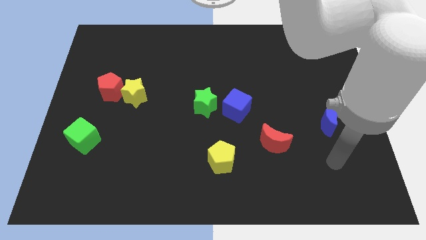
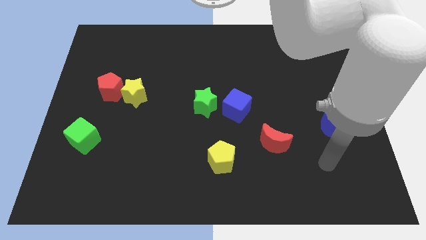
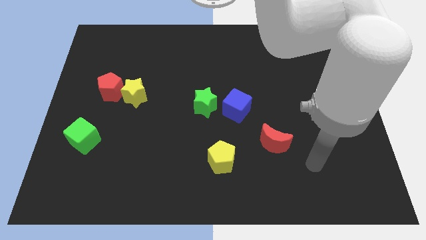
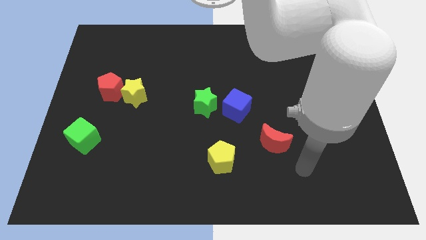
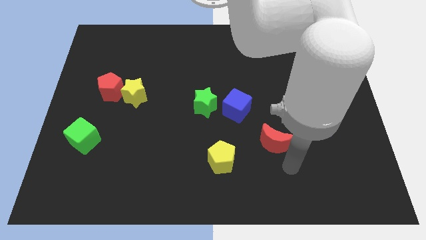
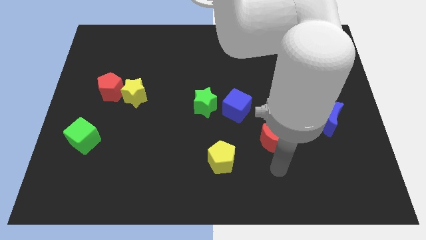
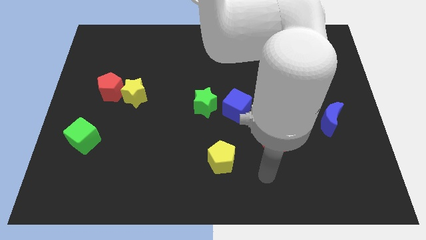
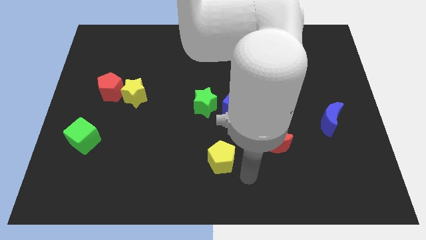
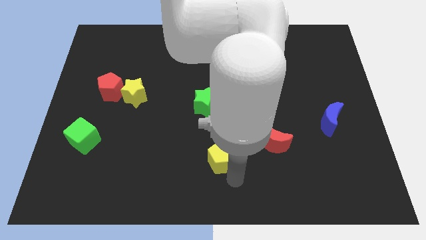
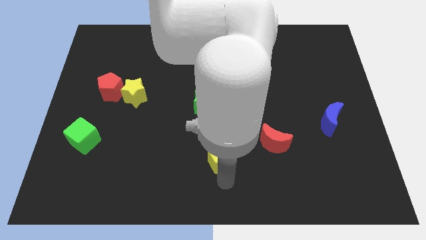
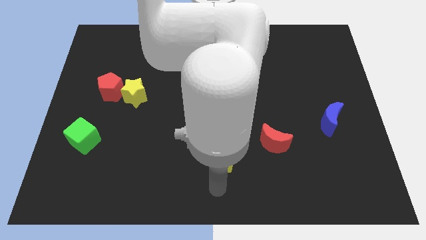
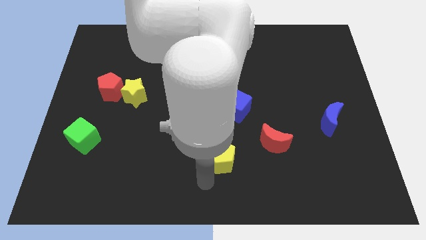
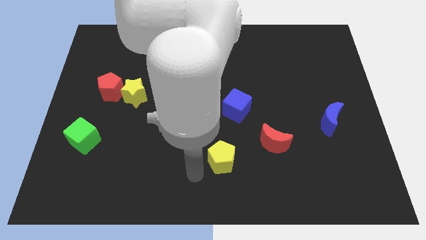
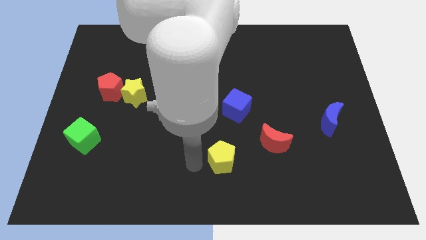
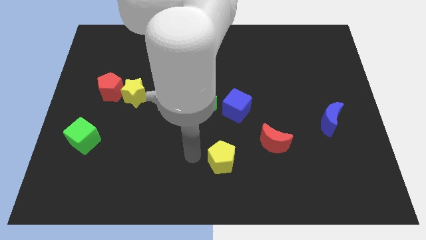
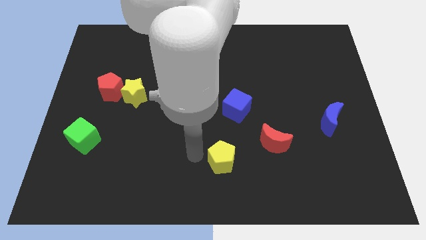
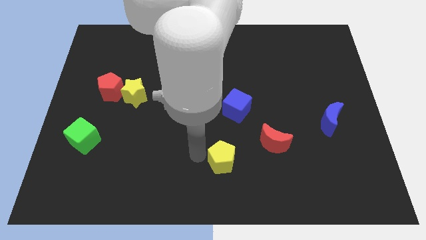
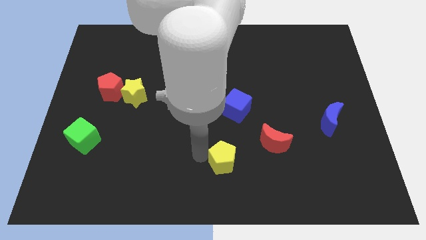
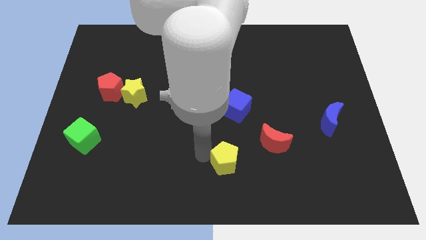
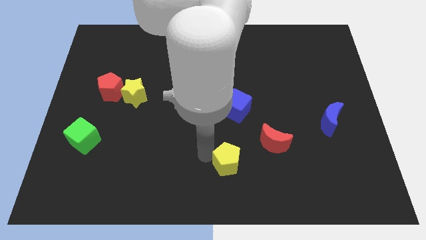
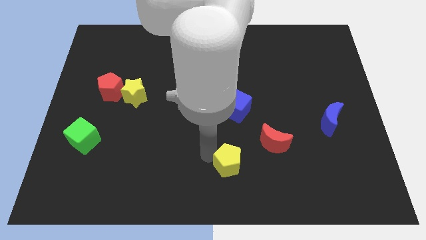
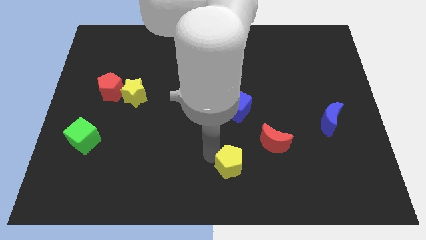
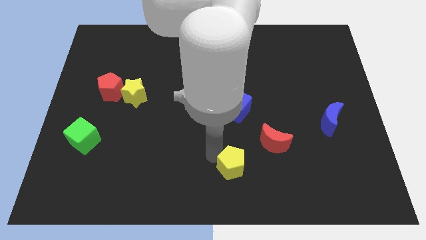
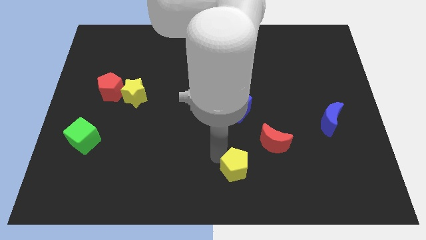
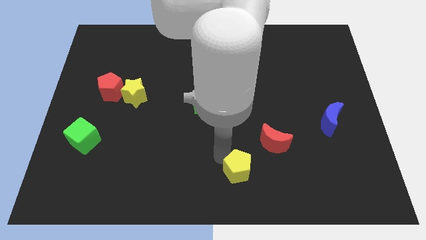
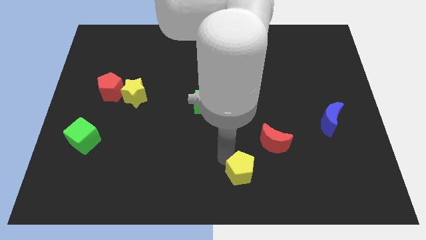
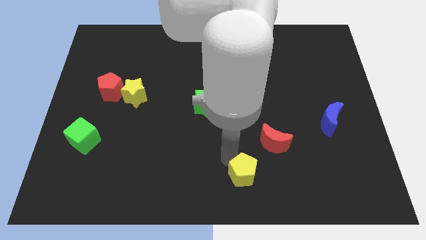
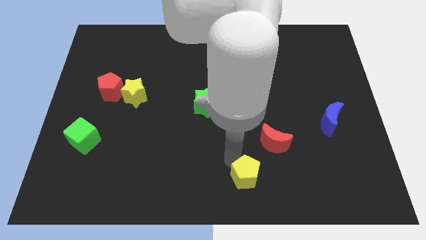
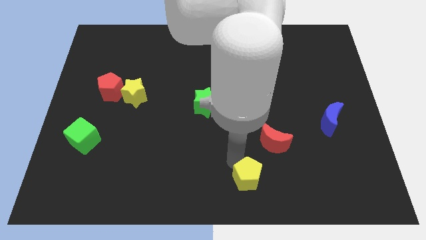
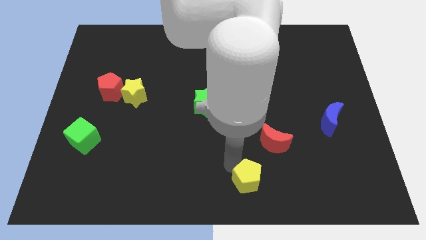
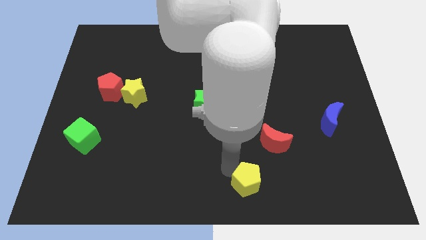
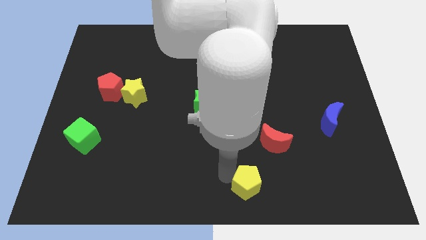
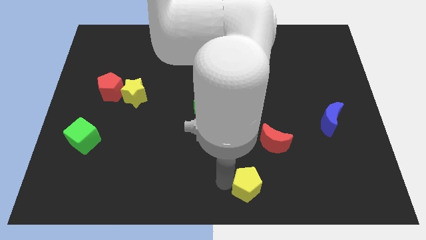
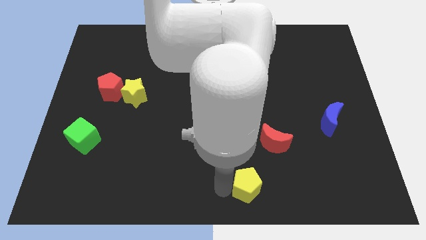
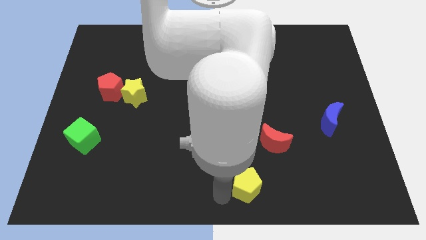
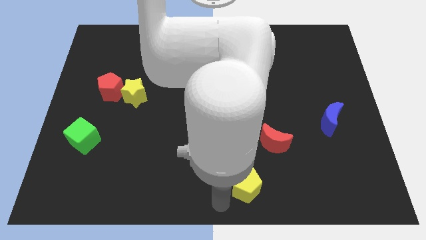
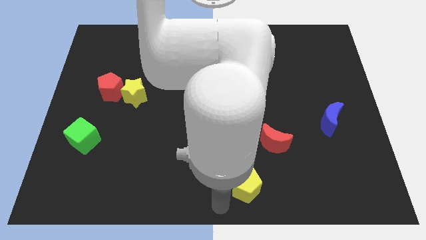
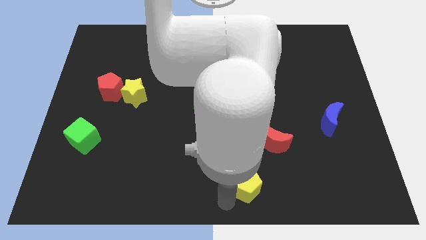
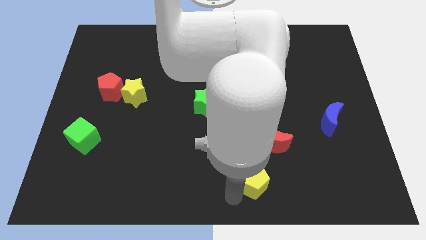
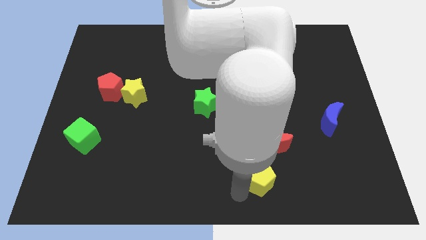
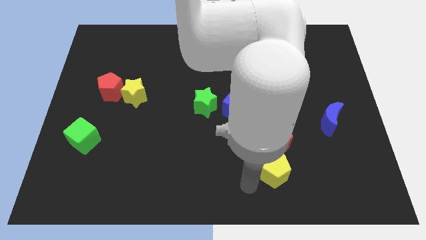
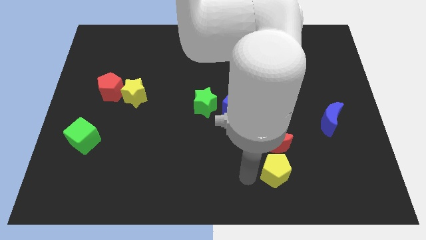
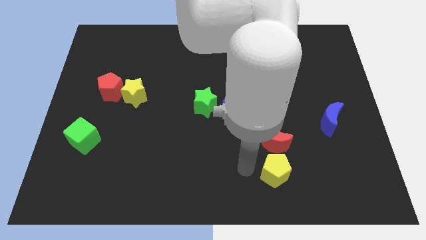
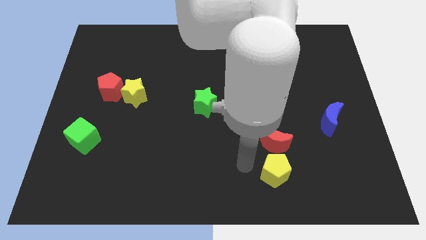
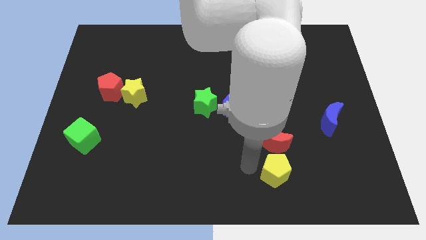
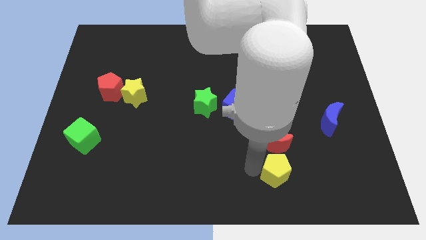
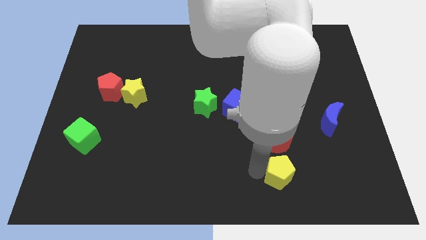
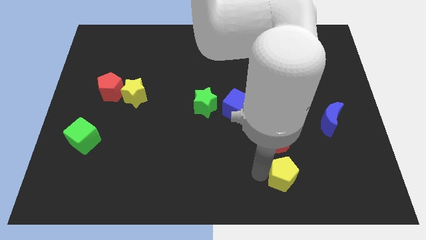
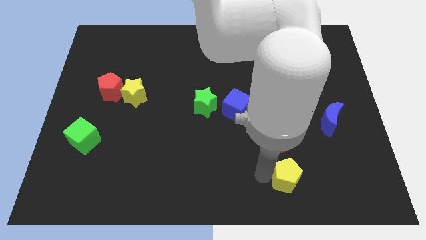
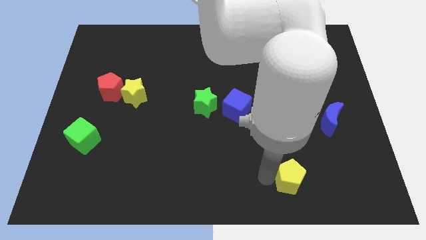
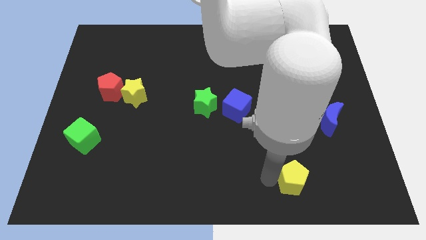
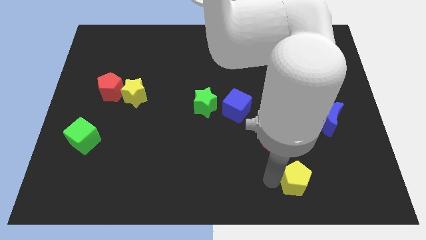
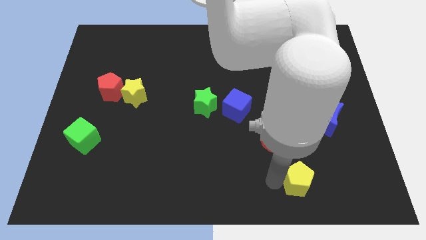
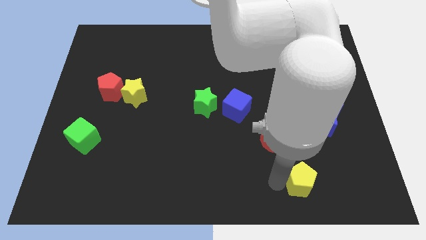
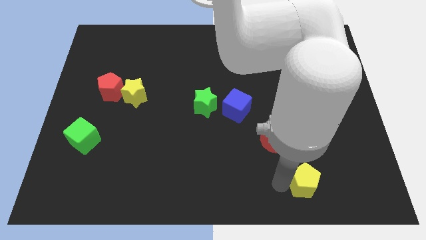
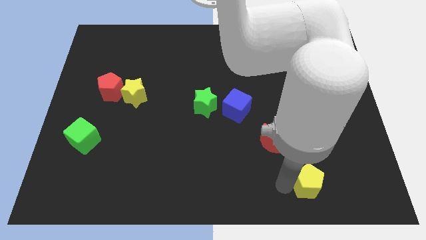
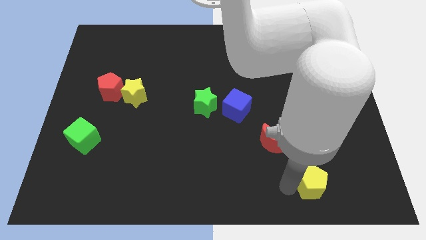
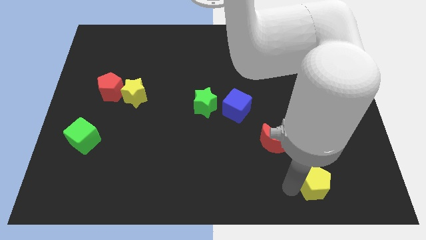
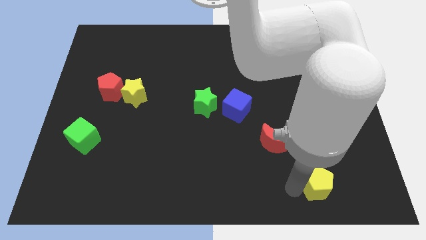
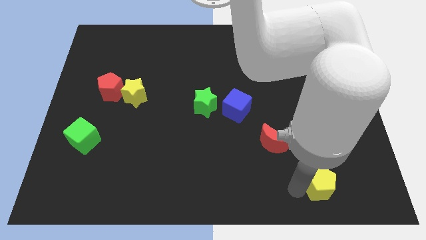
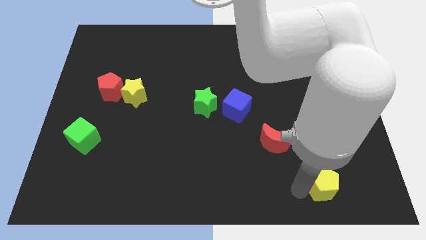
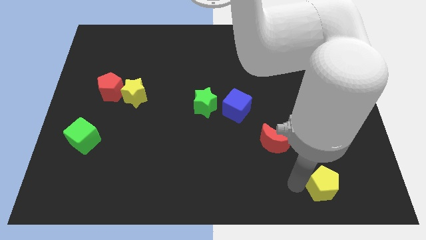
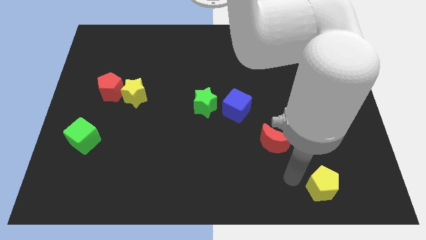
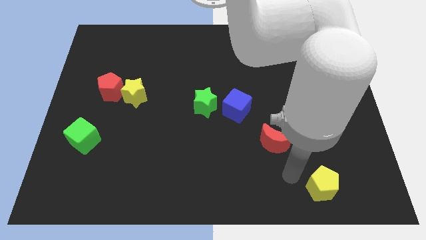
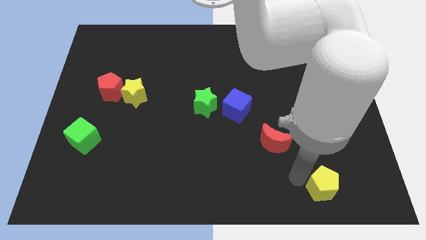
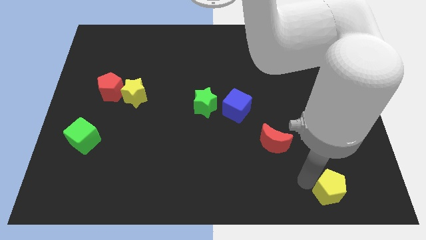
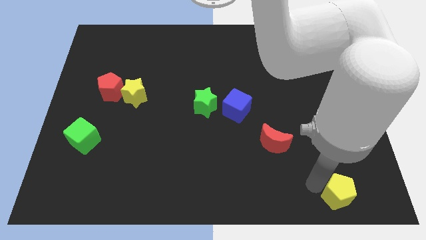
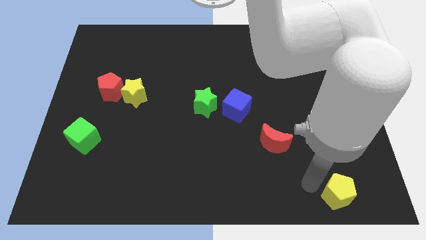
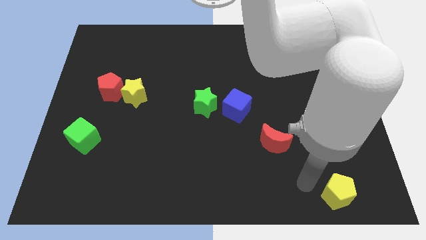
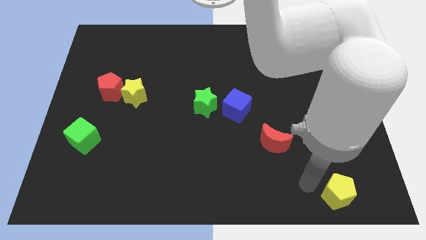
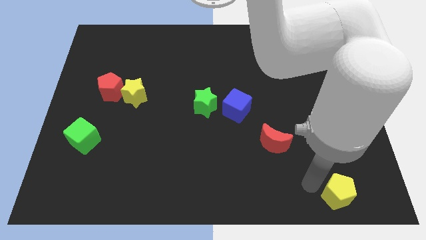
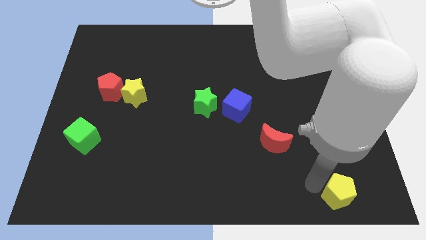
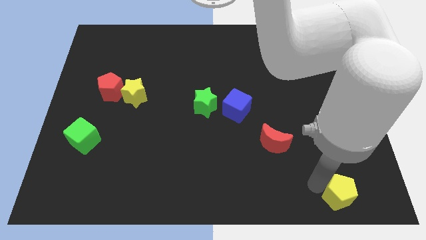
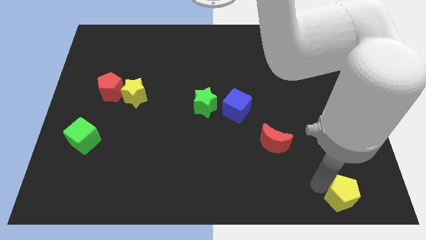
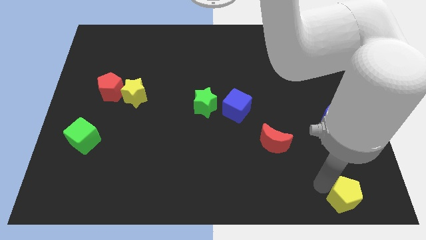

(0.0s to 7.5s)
move the yellow pentagon to the bottom right of the board
